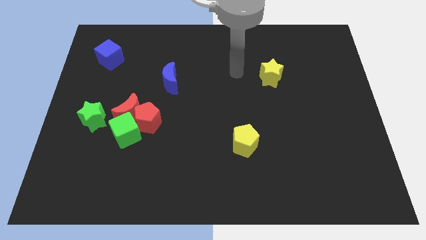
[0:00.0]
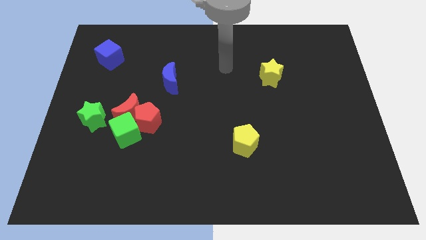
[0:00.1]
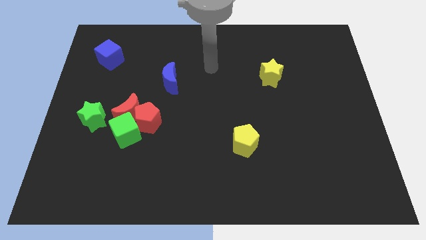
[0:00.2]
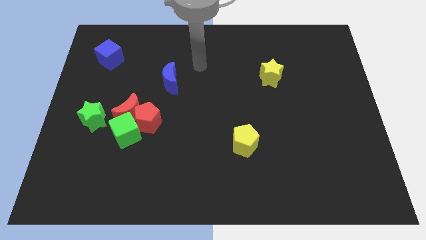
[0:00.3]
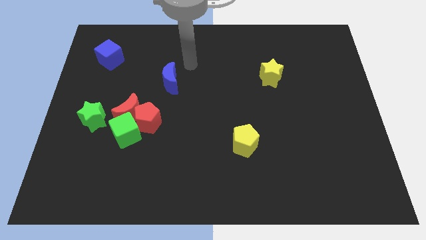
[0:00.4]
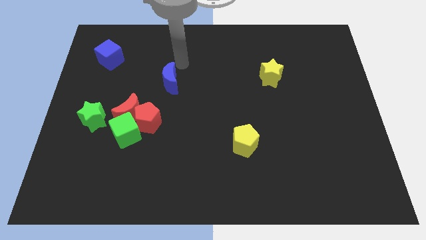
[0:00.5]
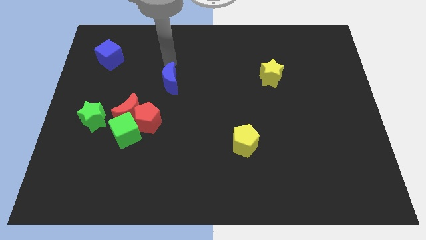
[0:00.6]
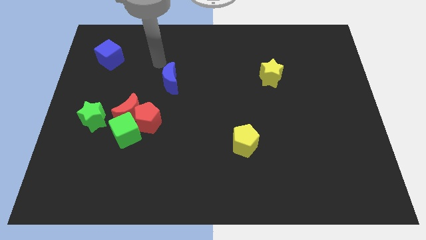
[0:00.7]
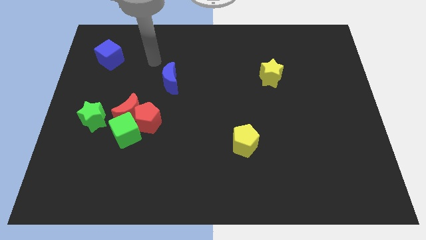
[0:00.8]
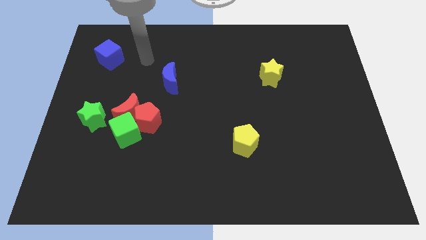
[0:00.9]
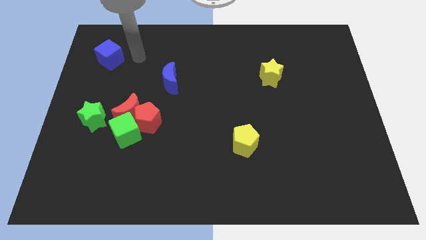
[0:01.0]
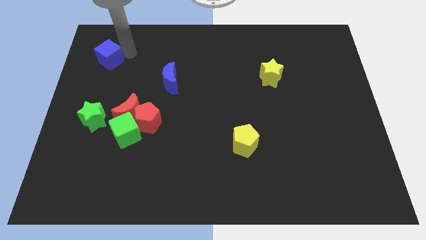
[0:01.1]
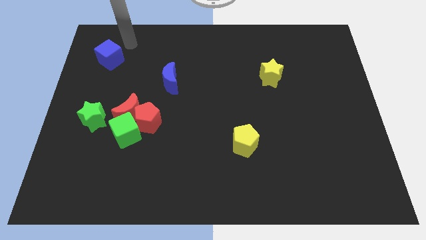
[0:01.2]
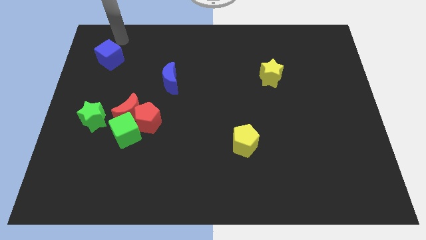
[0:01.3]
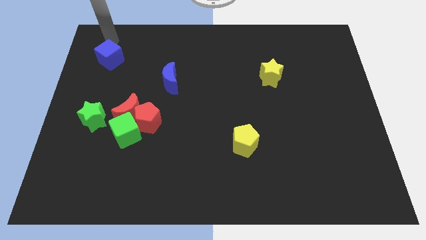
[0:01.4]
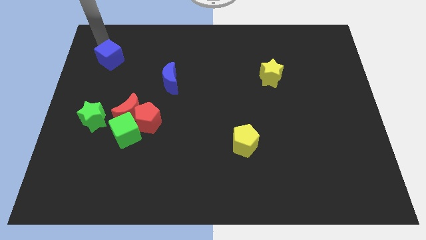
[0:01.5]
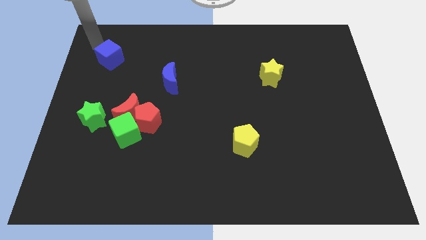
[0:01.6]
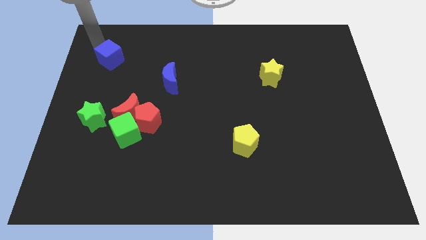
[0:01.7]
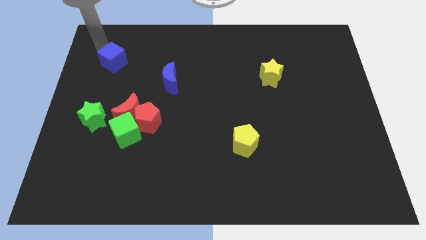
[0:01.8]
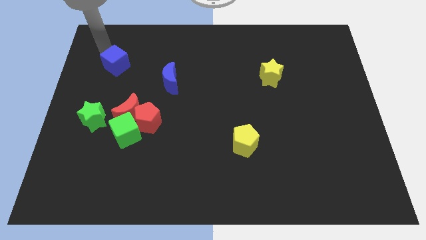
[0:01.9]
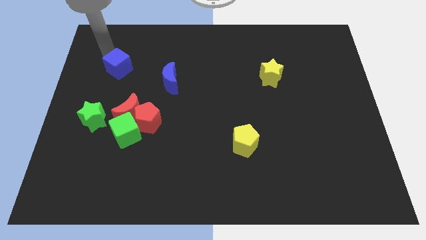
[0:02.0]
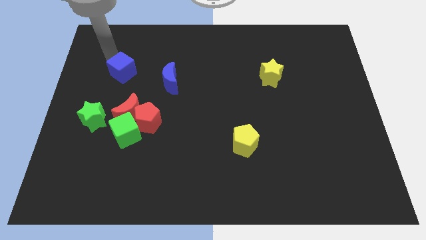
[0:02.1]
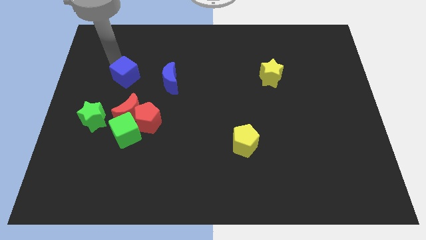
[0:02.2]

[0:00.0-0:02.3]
move the blue cube slightly downwards and to the right

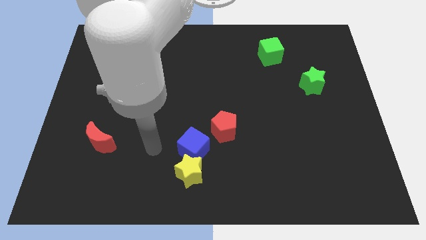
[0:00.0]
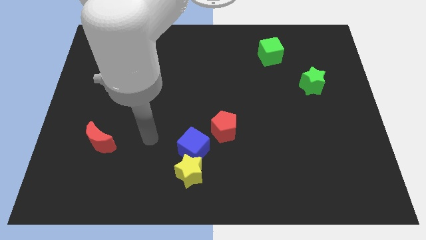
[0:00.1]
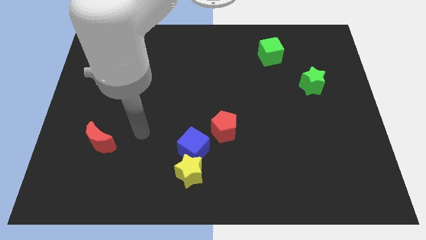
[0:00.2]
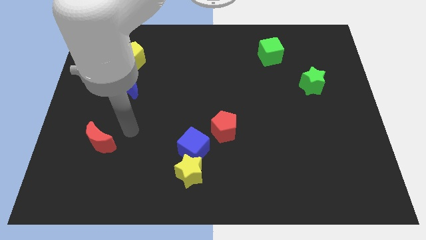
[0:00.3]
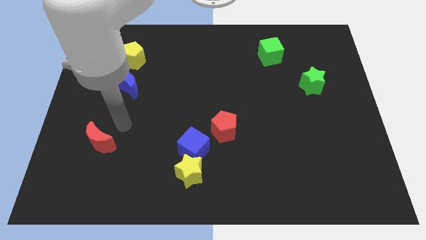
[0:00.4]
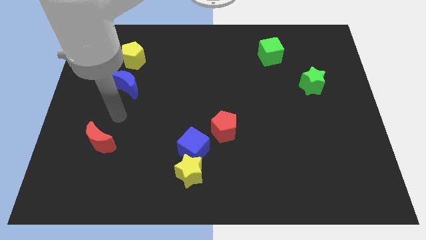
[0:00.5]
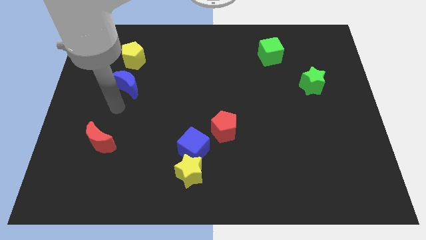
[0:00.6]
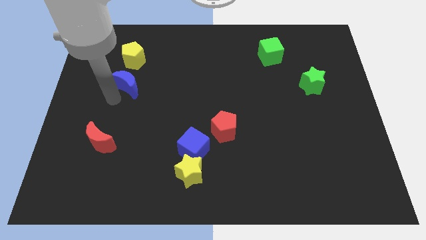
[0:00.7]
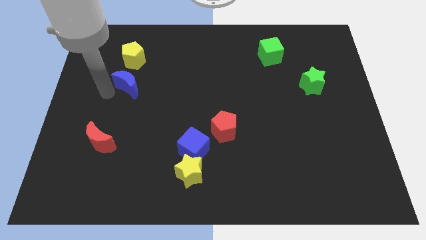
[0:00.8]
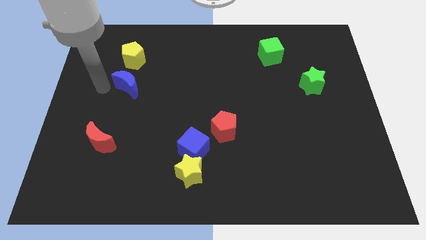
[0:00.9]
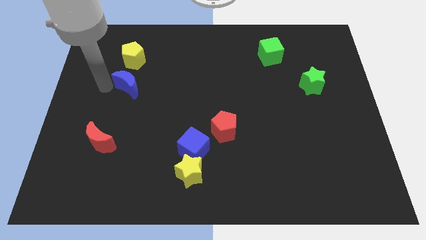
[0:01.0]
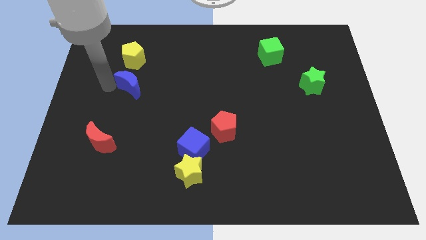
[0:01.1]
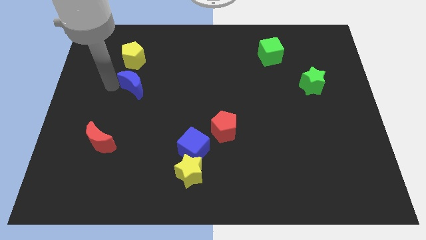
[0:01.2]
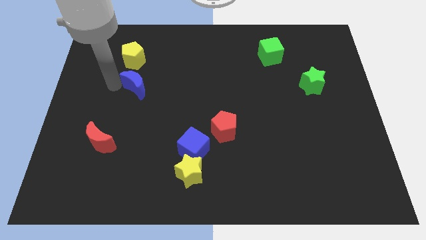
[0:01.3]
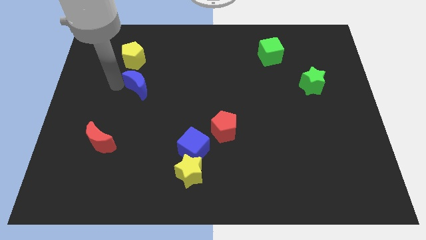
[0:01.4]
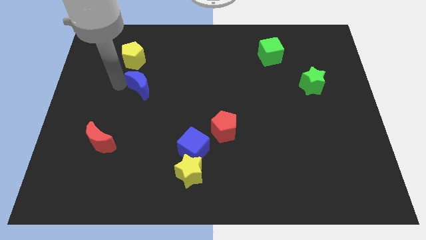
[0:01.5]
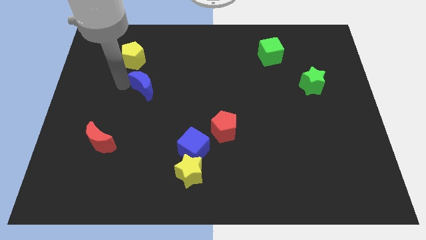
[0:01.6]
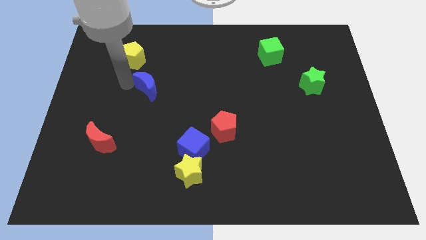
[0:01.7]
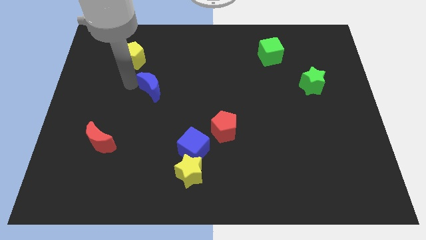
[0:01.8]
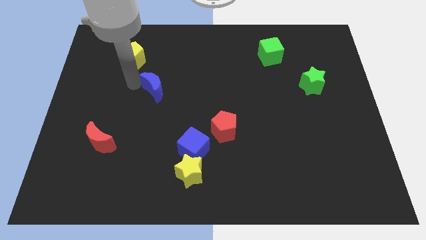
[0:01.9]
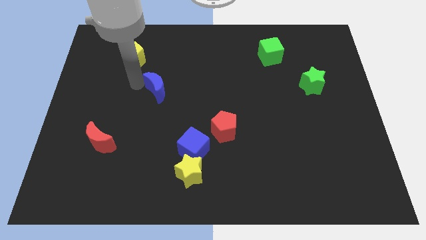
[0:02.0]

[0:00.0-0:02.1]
move the blue moon right somewhat

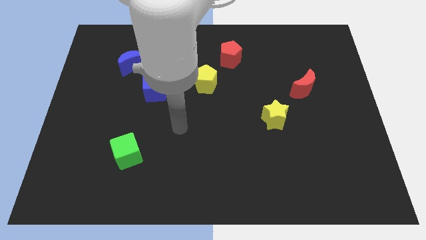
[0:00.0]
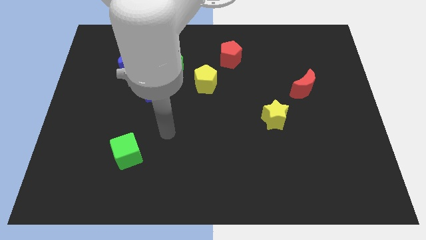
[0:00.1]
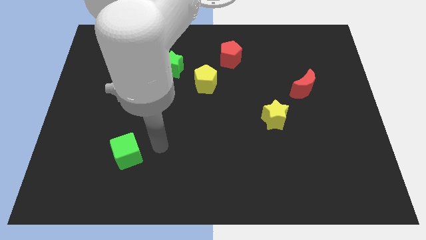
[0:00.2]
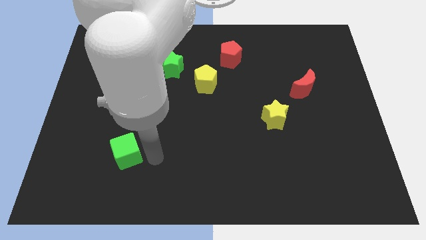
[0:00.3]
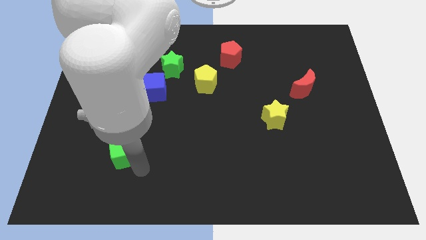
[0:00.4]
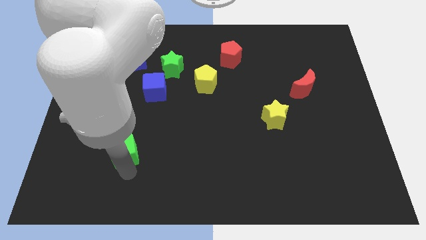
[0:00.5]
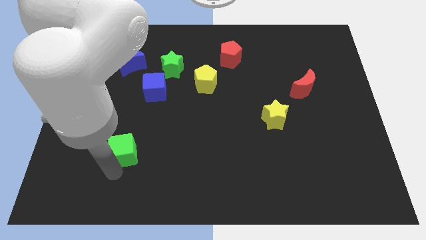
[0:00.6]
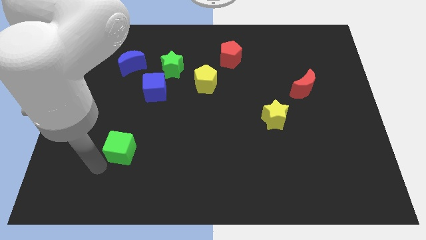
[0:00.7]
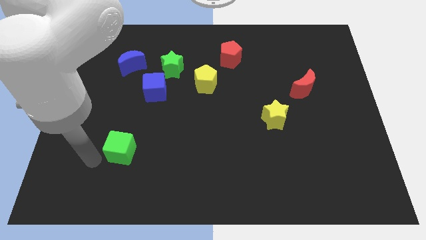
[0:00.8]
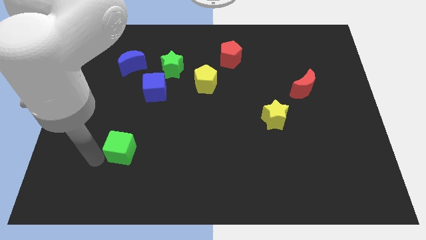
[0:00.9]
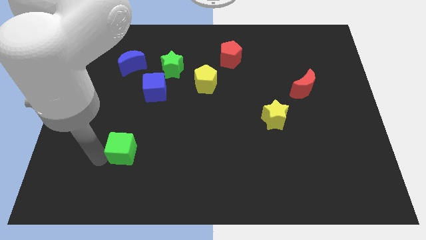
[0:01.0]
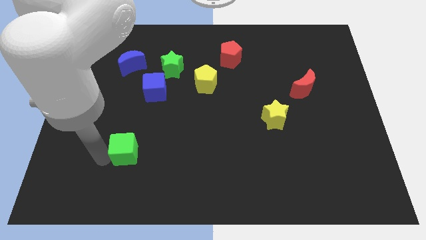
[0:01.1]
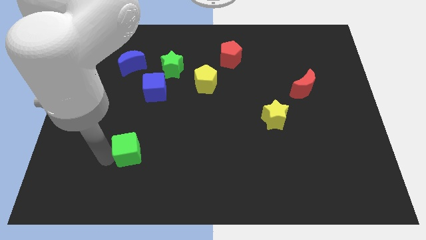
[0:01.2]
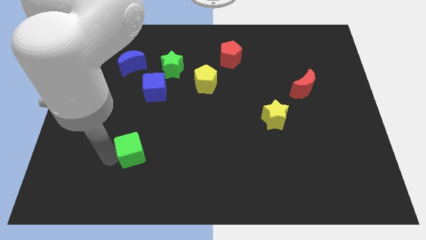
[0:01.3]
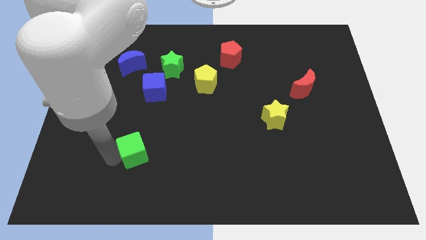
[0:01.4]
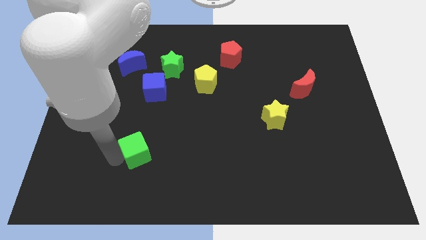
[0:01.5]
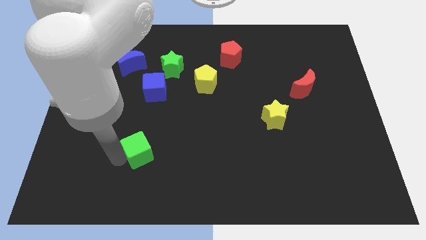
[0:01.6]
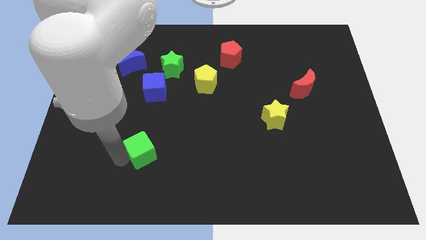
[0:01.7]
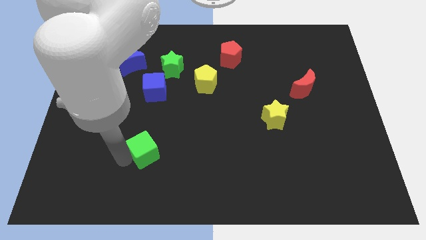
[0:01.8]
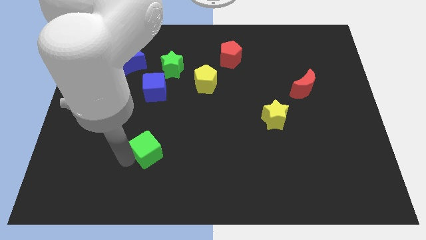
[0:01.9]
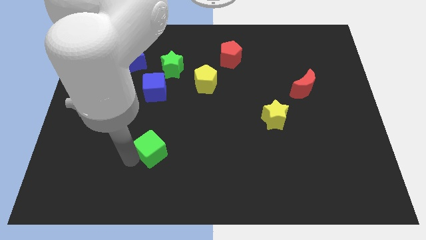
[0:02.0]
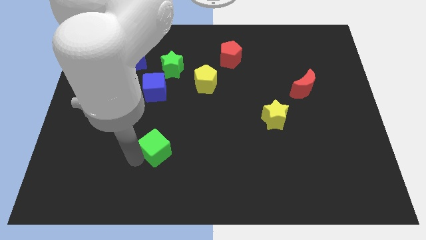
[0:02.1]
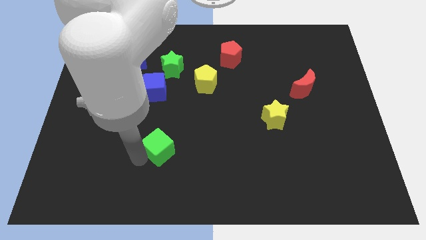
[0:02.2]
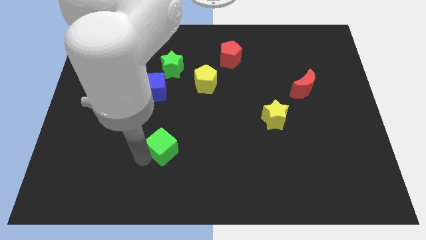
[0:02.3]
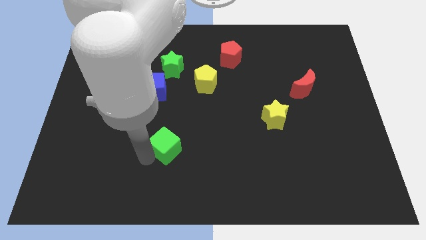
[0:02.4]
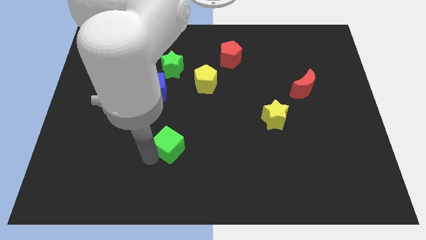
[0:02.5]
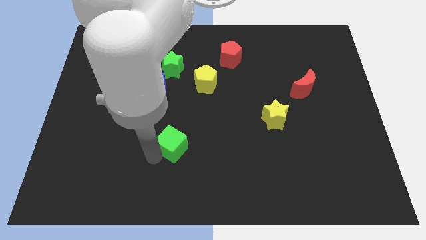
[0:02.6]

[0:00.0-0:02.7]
slide the green cube diagonally upwards and right a bit

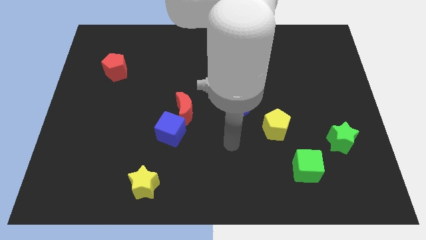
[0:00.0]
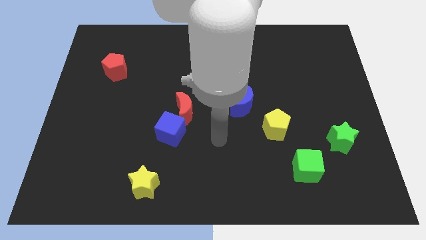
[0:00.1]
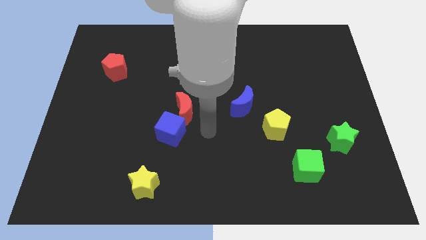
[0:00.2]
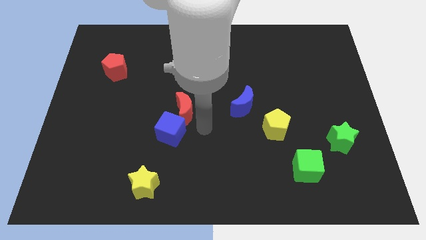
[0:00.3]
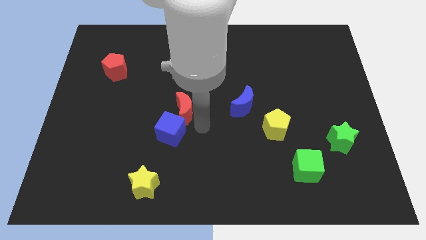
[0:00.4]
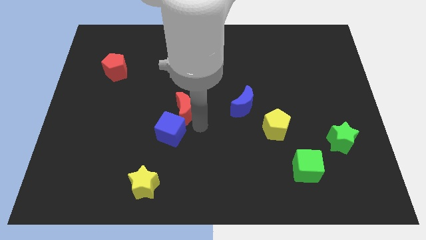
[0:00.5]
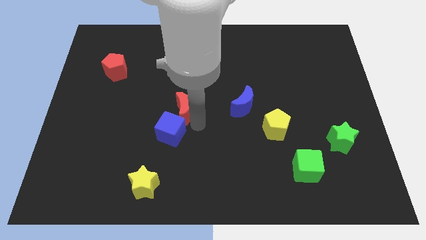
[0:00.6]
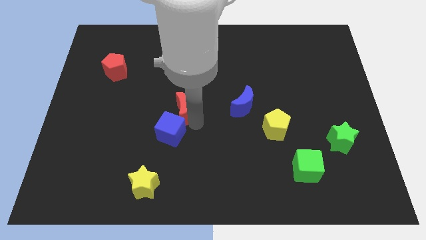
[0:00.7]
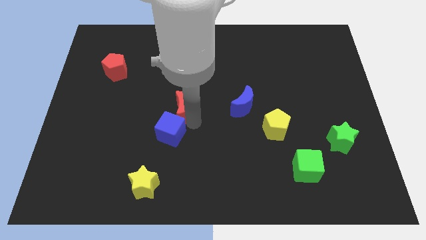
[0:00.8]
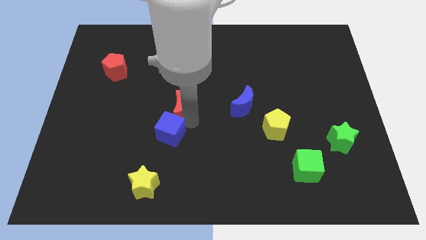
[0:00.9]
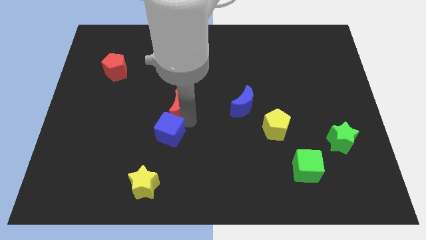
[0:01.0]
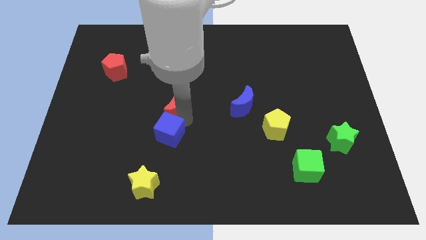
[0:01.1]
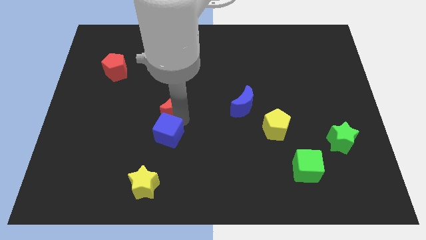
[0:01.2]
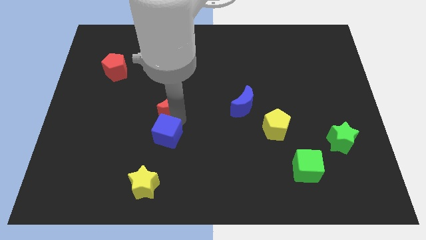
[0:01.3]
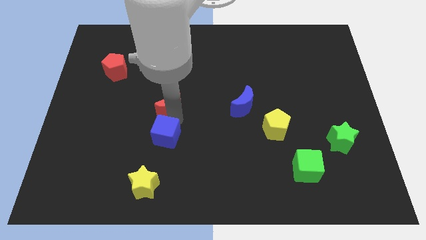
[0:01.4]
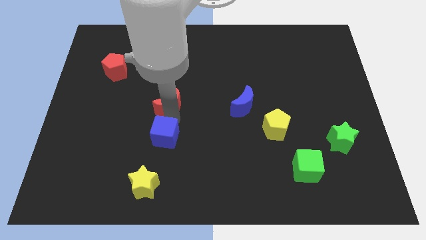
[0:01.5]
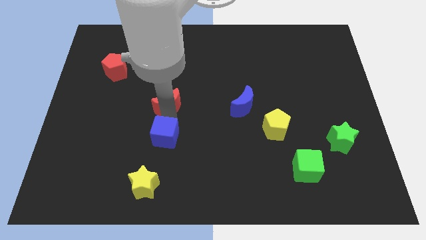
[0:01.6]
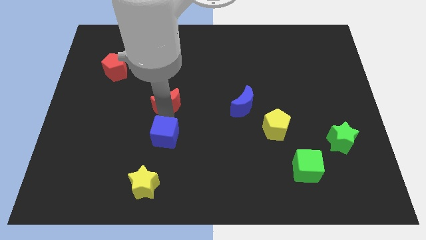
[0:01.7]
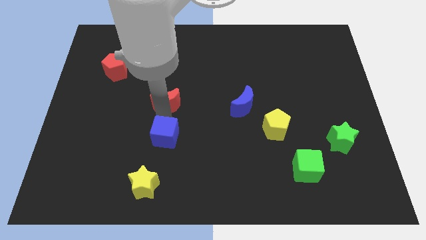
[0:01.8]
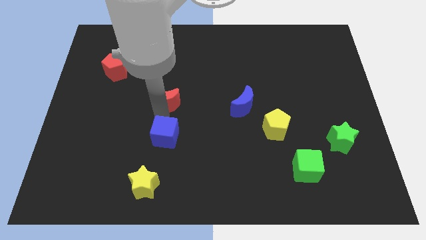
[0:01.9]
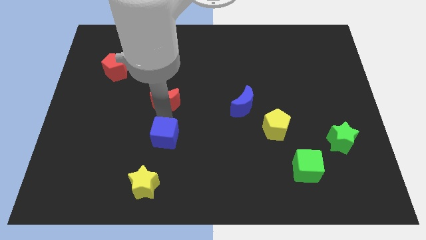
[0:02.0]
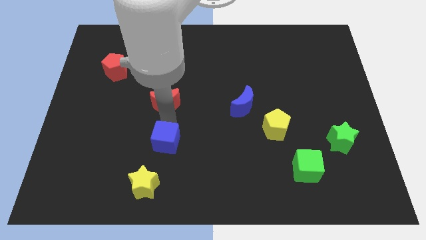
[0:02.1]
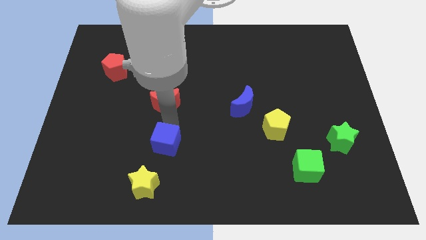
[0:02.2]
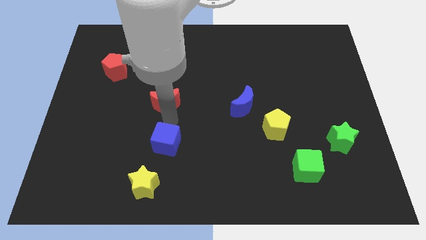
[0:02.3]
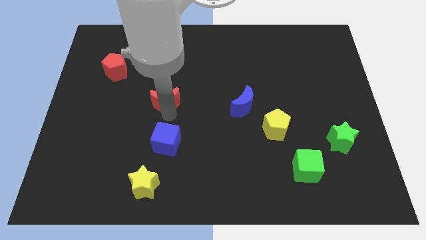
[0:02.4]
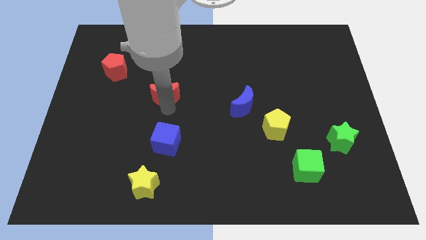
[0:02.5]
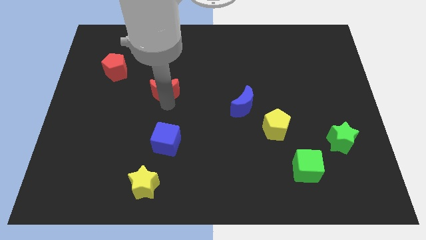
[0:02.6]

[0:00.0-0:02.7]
slightly move the red moon upwards and to the left
